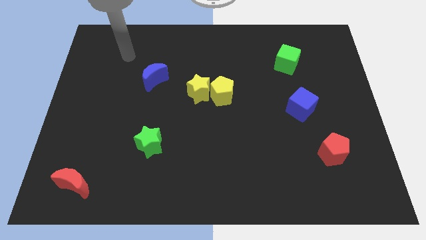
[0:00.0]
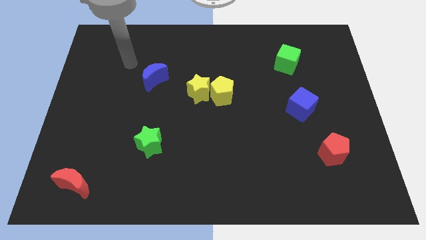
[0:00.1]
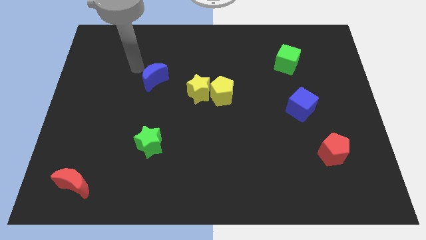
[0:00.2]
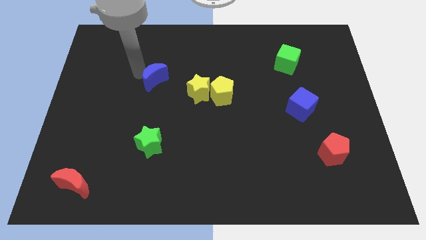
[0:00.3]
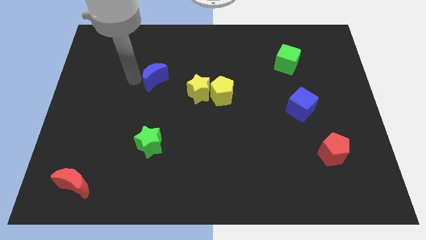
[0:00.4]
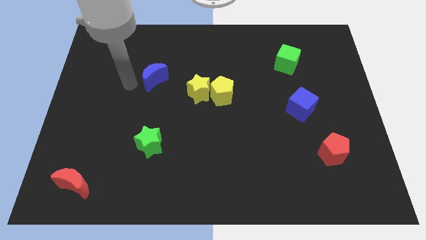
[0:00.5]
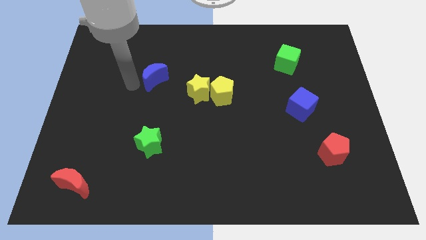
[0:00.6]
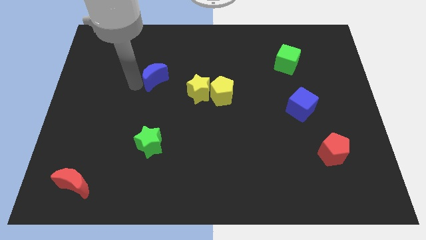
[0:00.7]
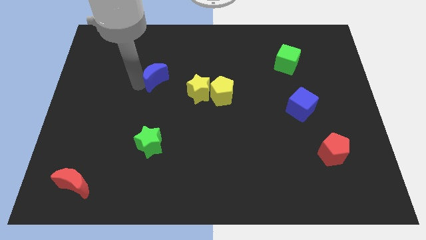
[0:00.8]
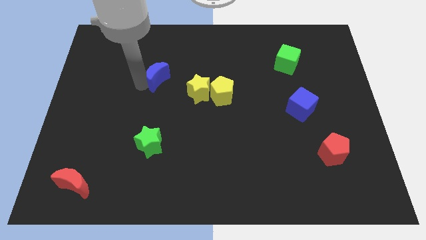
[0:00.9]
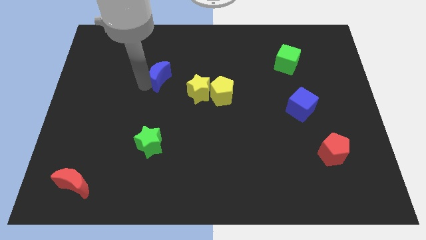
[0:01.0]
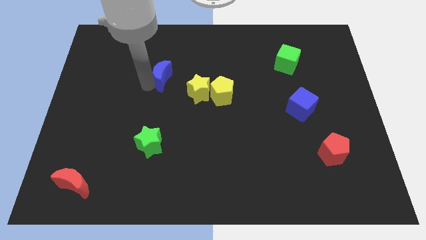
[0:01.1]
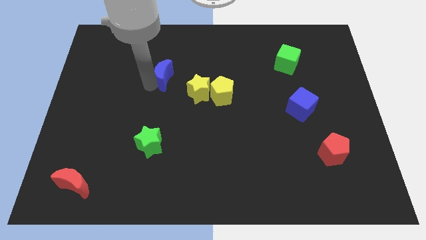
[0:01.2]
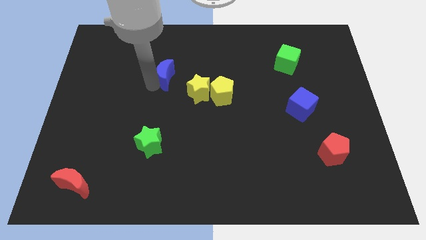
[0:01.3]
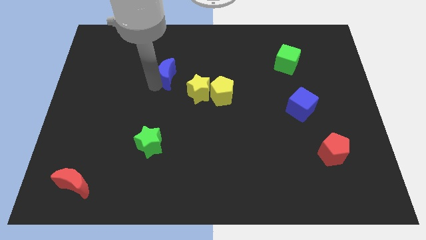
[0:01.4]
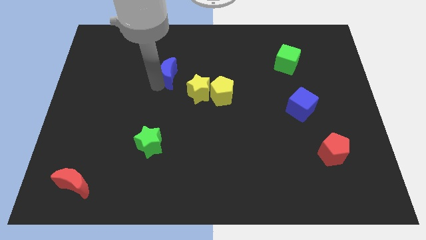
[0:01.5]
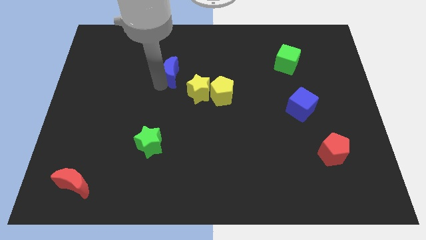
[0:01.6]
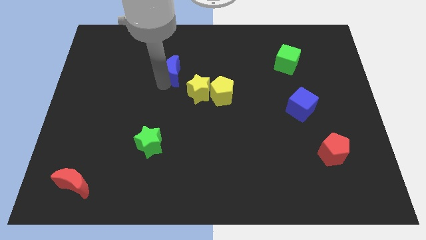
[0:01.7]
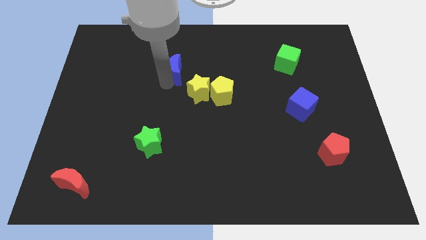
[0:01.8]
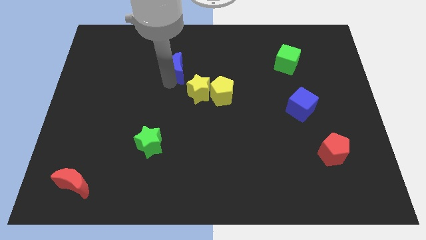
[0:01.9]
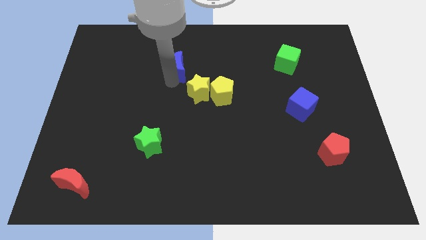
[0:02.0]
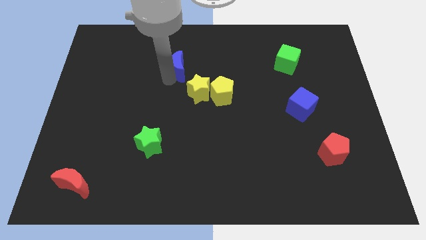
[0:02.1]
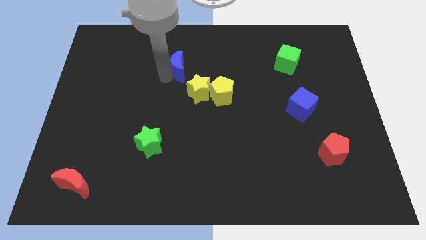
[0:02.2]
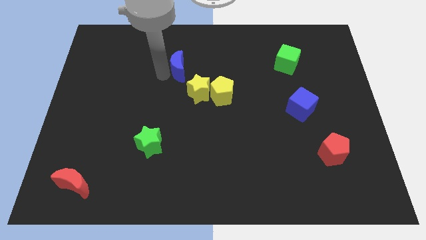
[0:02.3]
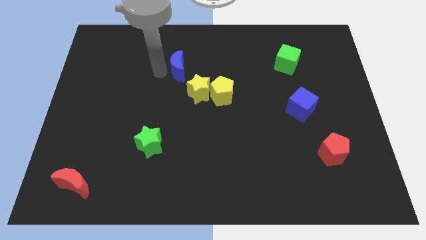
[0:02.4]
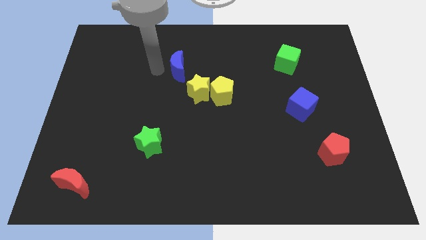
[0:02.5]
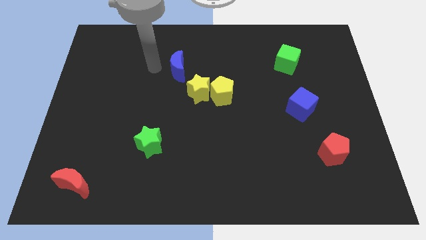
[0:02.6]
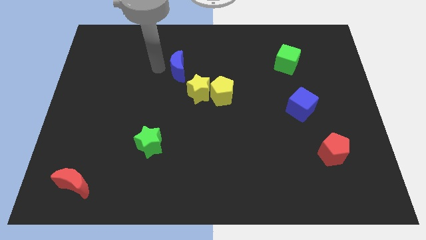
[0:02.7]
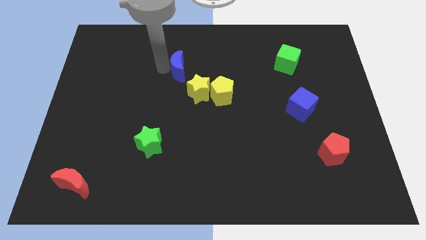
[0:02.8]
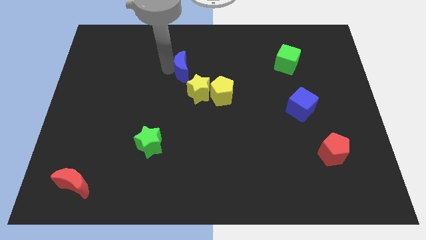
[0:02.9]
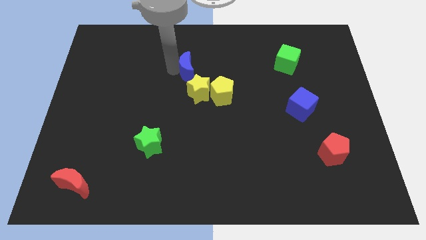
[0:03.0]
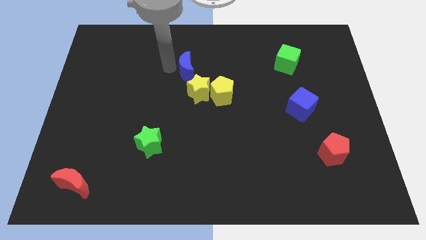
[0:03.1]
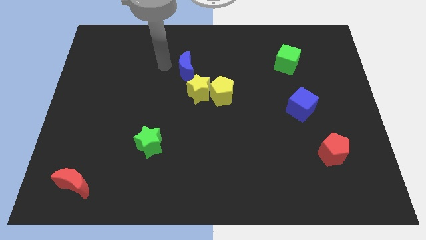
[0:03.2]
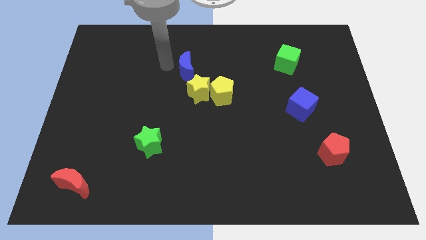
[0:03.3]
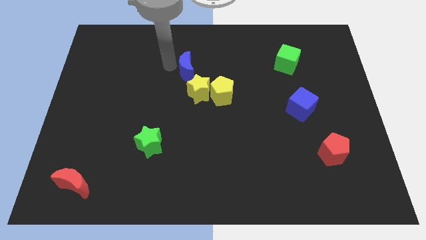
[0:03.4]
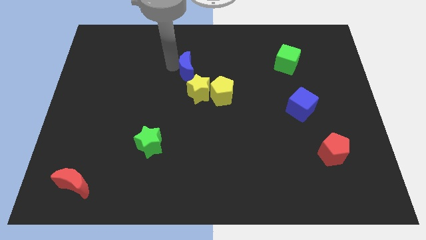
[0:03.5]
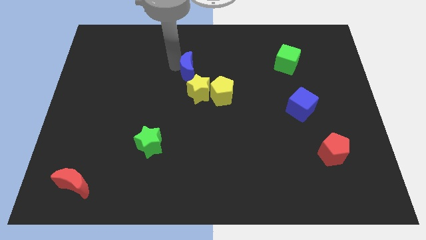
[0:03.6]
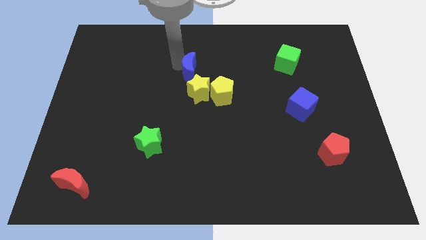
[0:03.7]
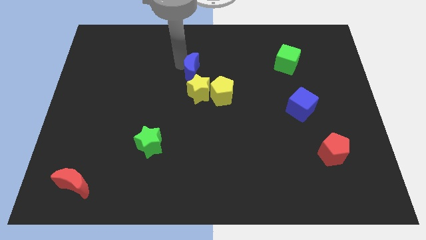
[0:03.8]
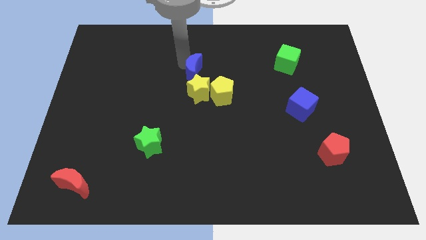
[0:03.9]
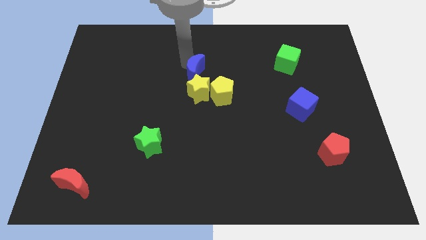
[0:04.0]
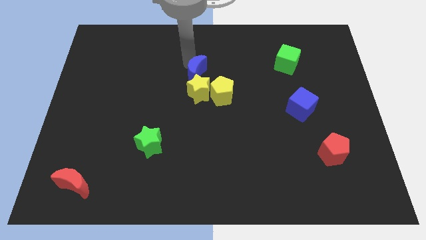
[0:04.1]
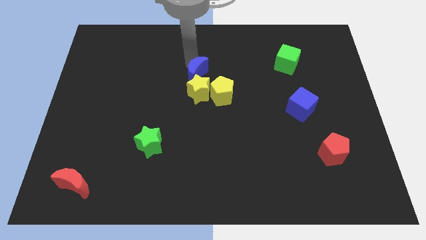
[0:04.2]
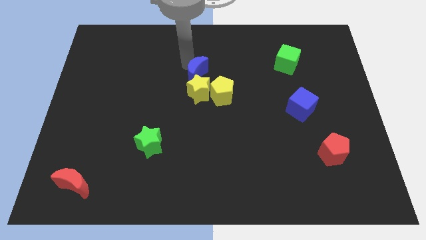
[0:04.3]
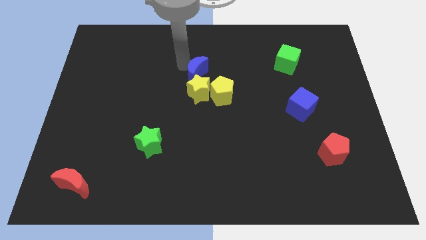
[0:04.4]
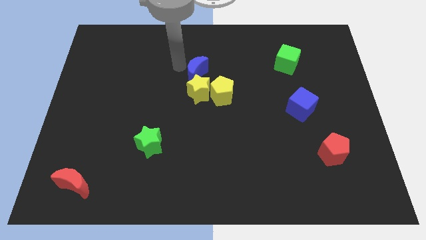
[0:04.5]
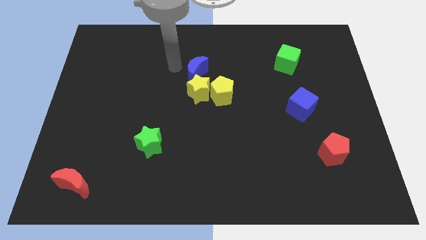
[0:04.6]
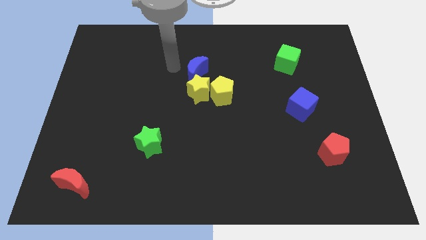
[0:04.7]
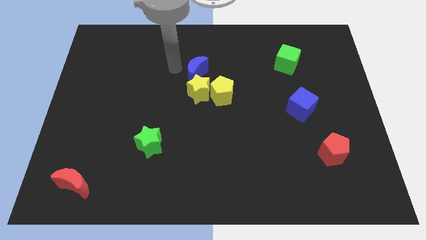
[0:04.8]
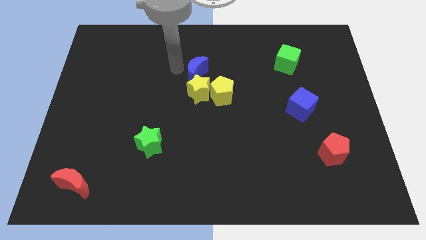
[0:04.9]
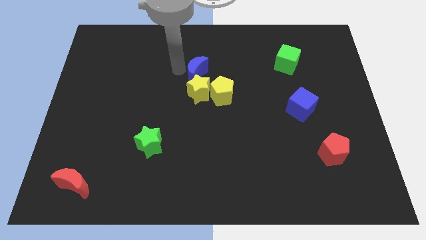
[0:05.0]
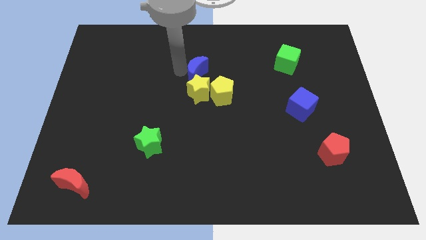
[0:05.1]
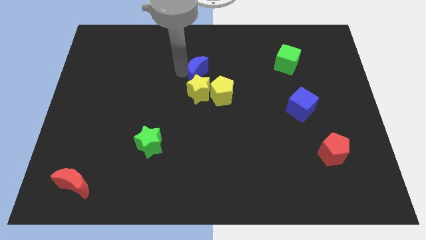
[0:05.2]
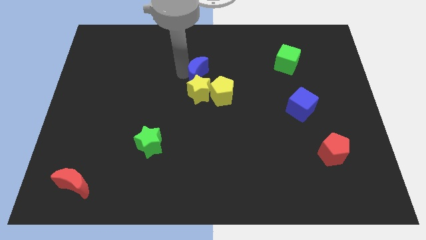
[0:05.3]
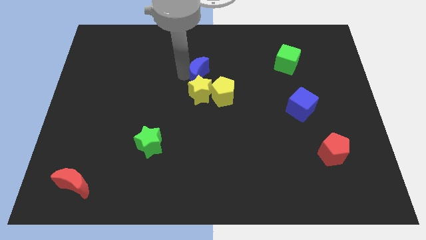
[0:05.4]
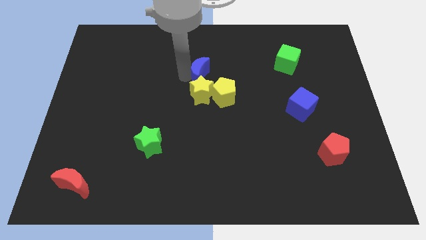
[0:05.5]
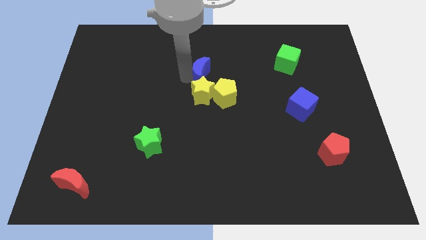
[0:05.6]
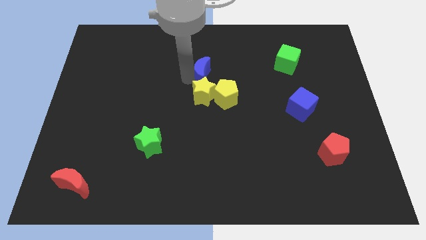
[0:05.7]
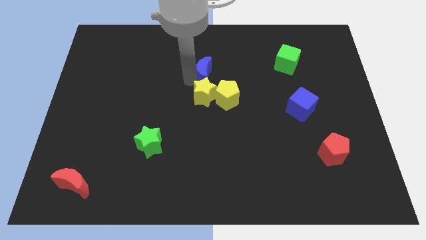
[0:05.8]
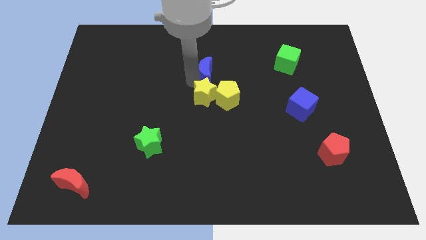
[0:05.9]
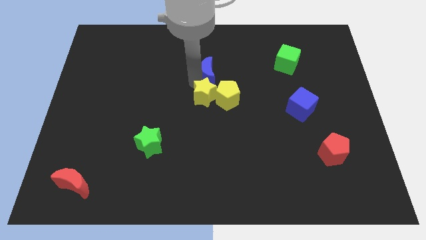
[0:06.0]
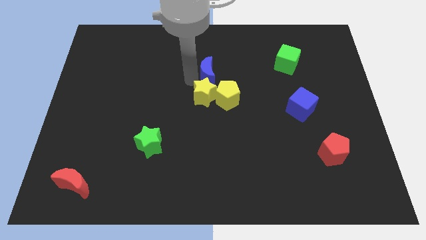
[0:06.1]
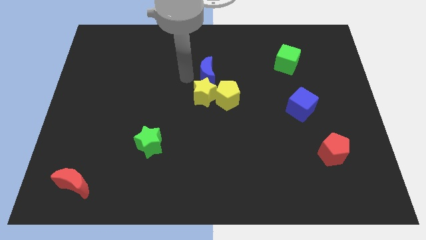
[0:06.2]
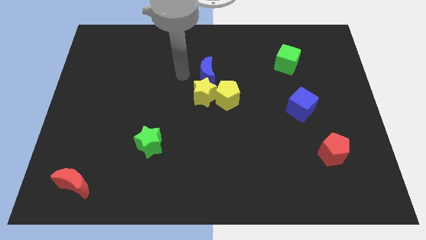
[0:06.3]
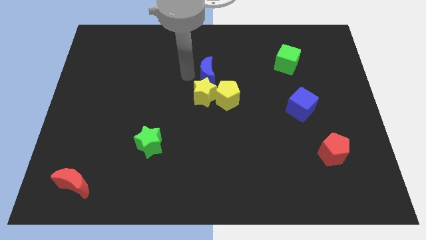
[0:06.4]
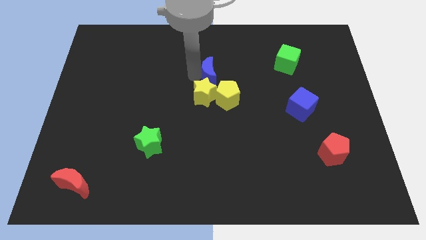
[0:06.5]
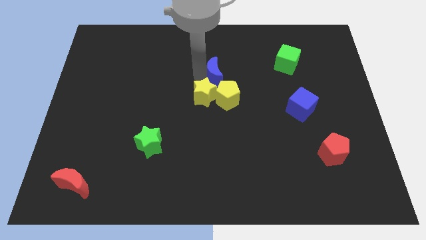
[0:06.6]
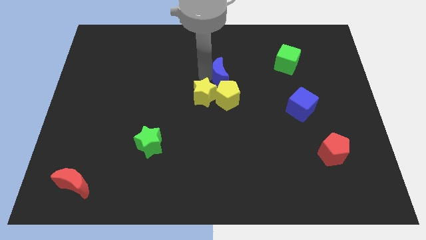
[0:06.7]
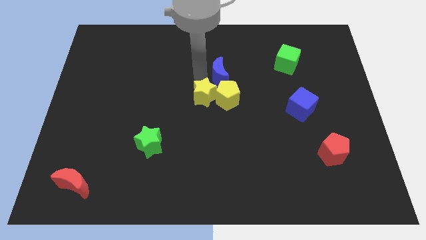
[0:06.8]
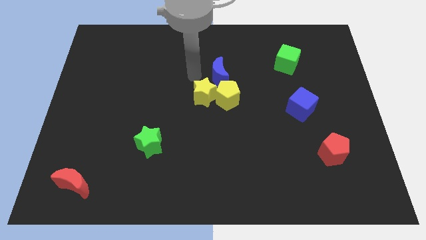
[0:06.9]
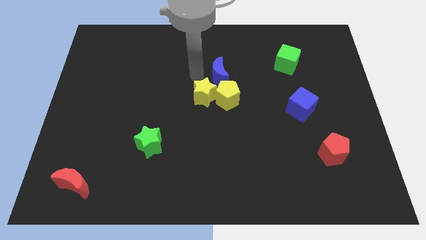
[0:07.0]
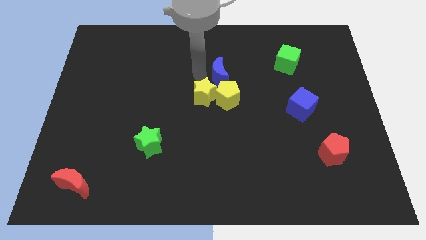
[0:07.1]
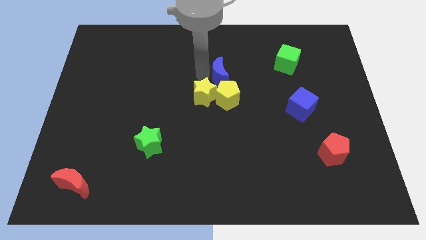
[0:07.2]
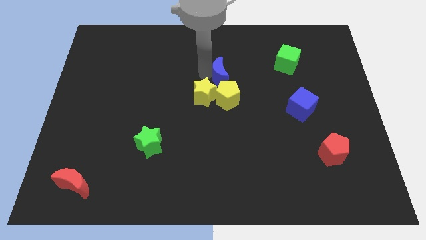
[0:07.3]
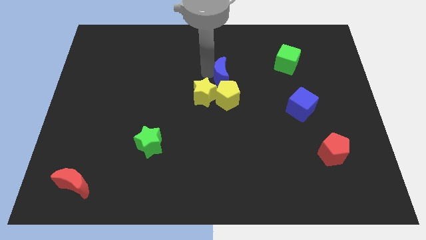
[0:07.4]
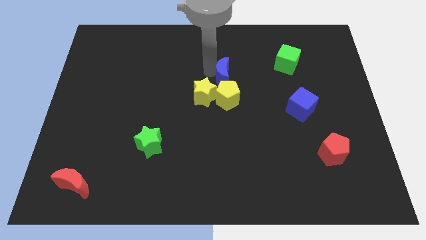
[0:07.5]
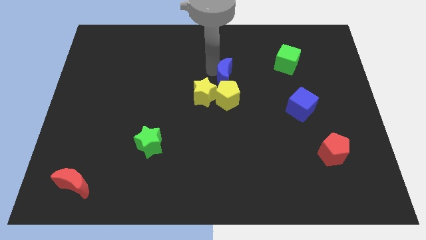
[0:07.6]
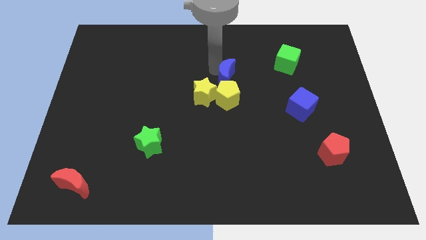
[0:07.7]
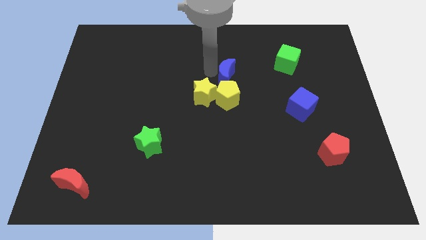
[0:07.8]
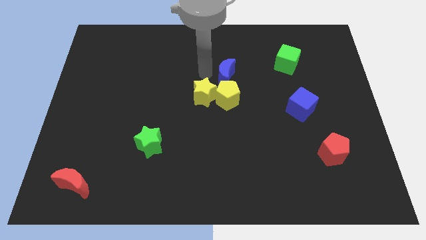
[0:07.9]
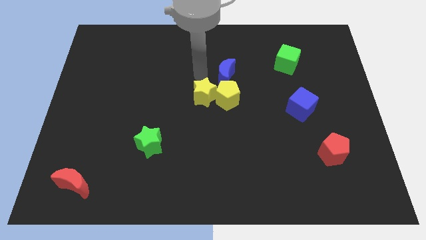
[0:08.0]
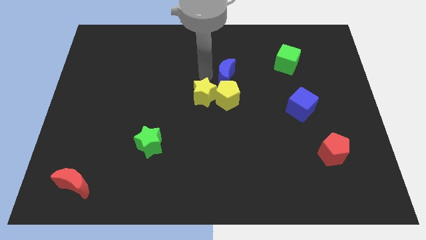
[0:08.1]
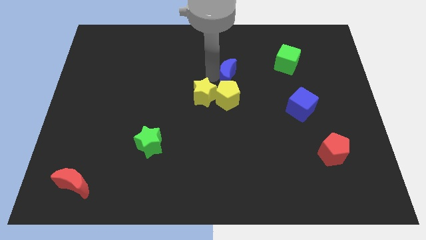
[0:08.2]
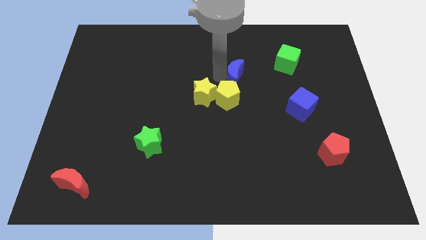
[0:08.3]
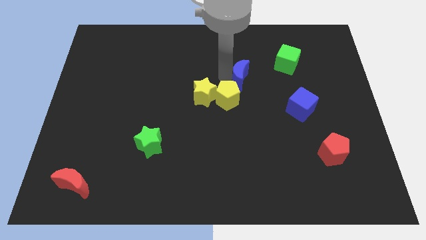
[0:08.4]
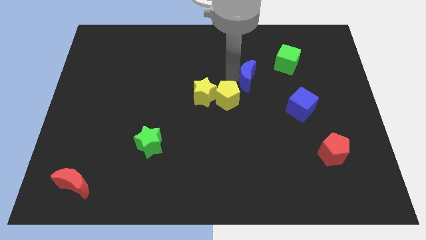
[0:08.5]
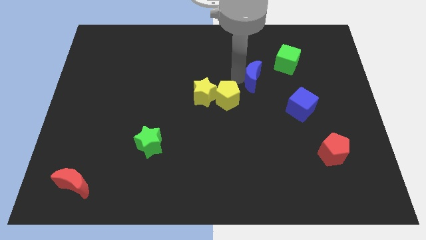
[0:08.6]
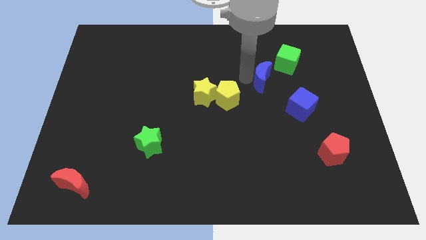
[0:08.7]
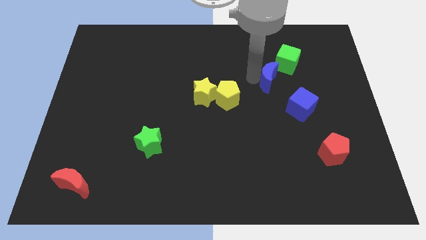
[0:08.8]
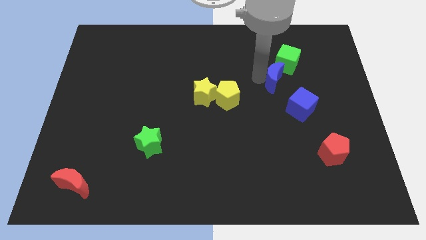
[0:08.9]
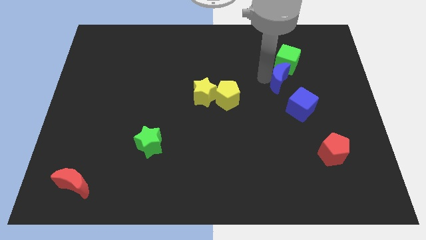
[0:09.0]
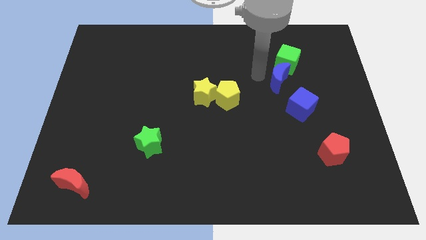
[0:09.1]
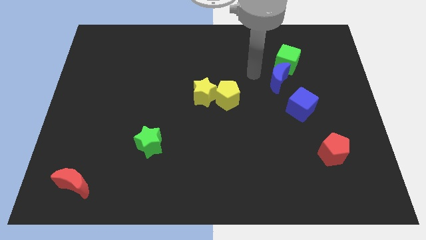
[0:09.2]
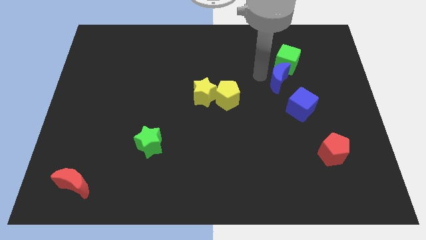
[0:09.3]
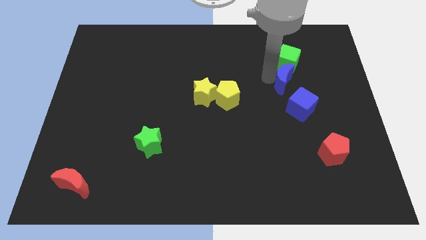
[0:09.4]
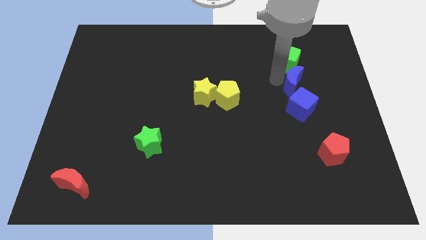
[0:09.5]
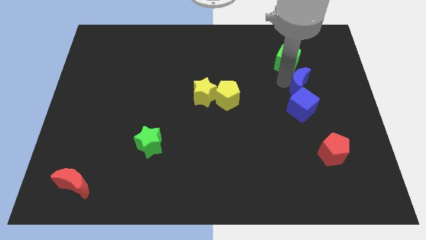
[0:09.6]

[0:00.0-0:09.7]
slide the blue moon diagonally up and to the right of the blue cube
